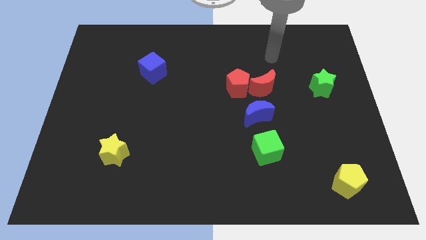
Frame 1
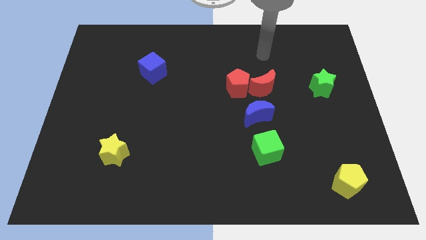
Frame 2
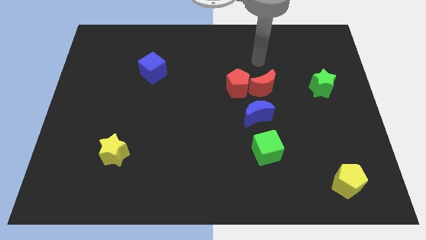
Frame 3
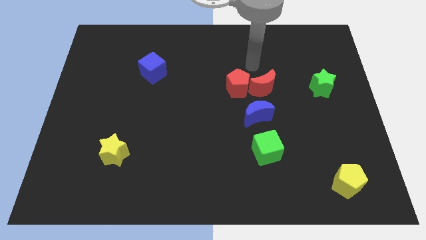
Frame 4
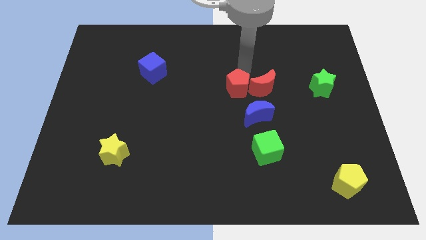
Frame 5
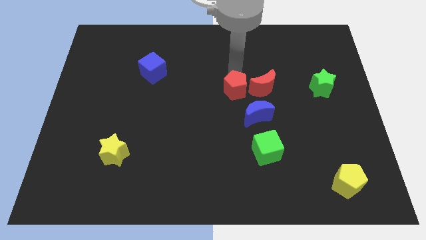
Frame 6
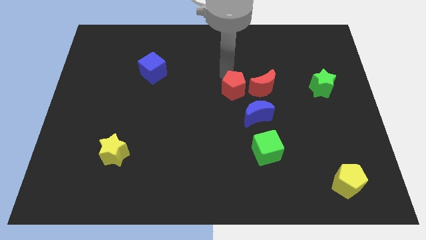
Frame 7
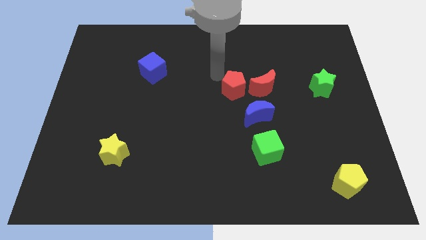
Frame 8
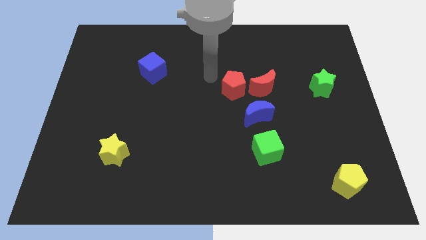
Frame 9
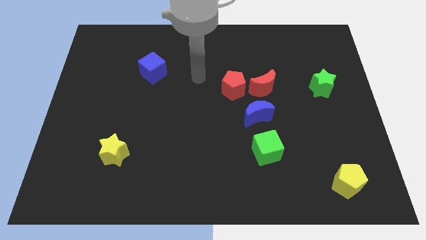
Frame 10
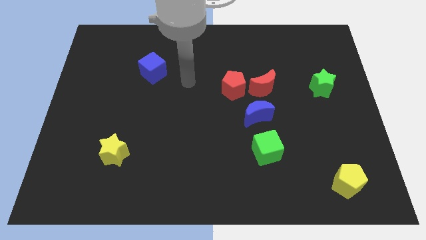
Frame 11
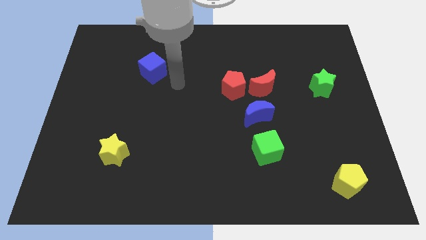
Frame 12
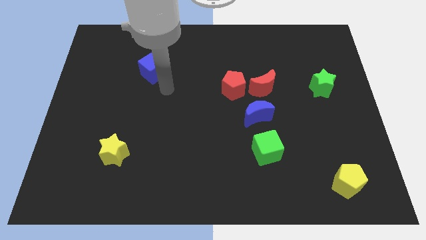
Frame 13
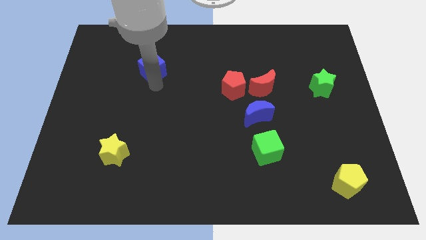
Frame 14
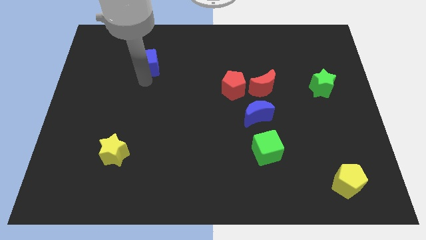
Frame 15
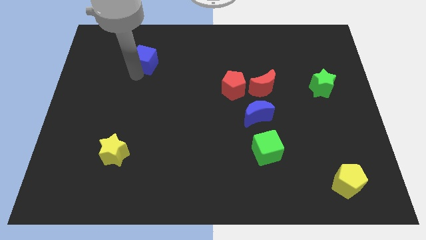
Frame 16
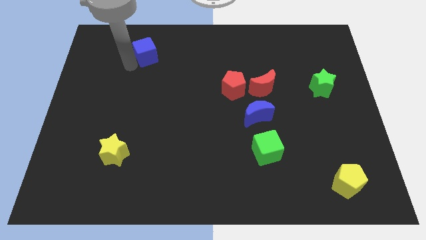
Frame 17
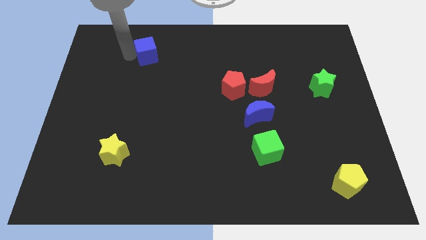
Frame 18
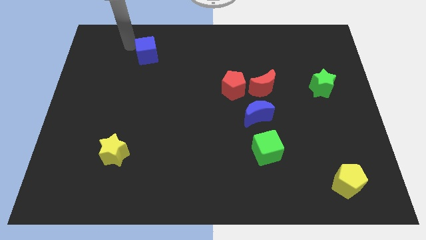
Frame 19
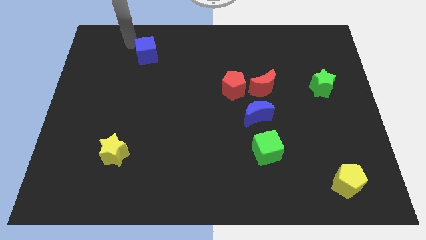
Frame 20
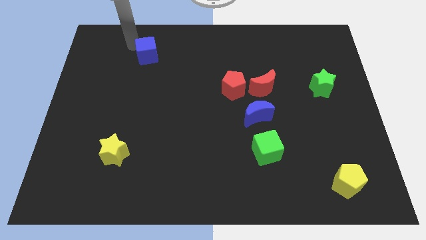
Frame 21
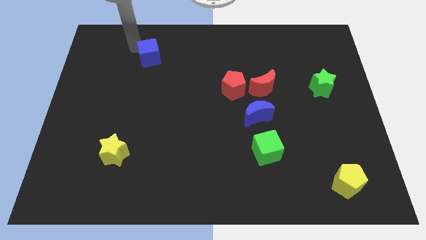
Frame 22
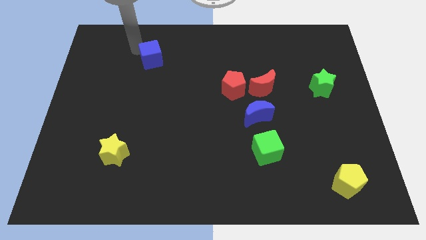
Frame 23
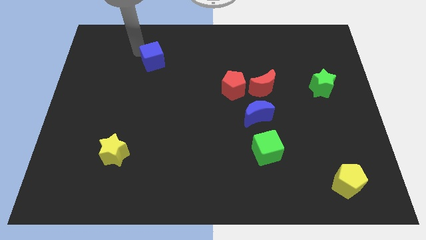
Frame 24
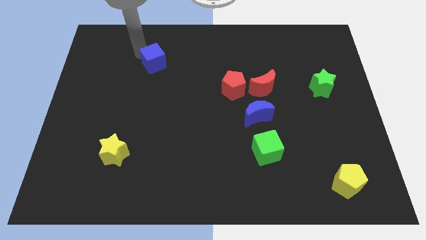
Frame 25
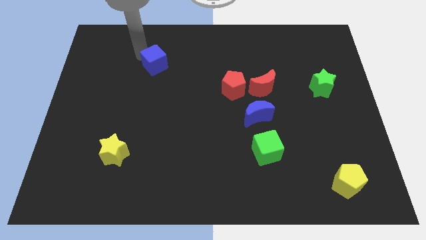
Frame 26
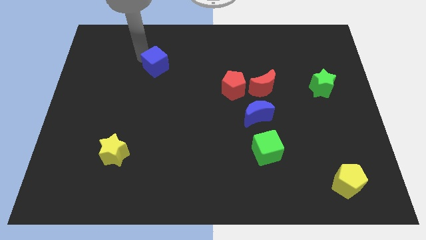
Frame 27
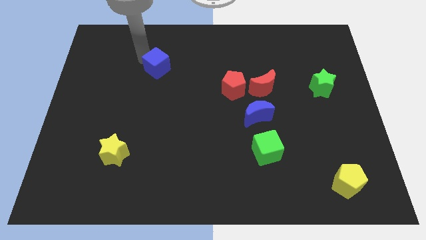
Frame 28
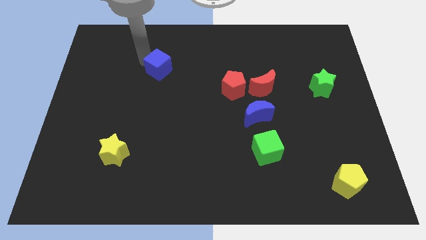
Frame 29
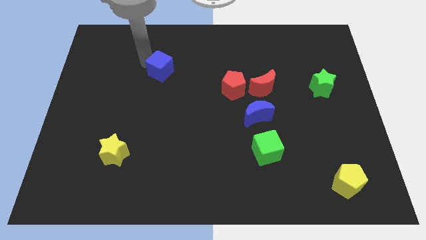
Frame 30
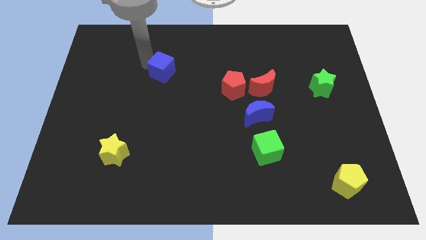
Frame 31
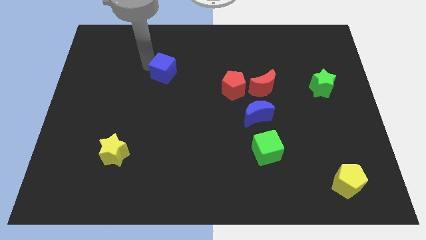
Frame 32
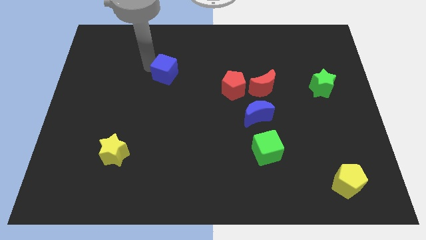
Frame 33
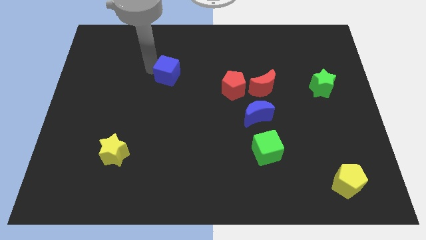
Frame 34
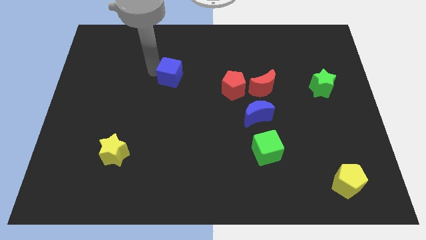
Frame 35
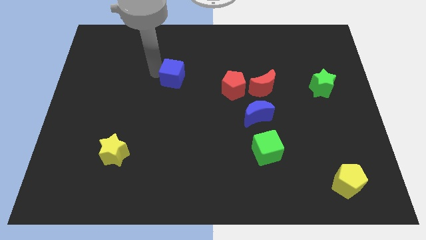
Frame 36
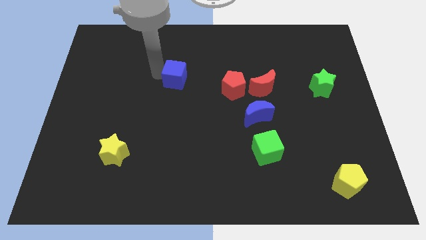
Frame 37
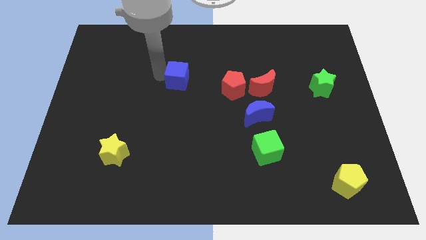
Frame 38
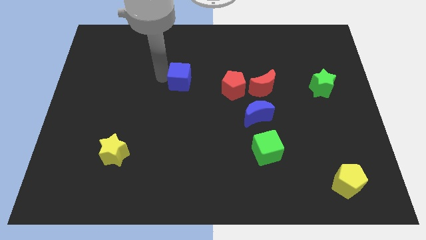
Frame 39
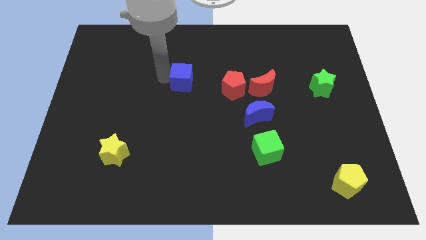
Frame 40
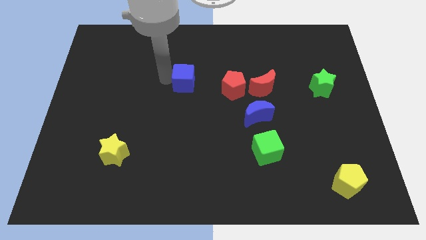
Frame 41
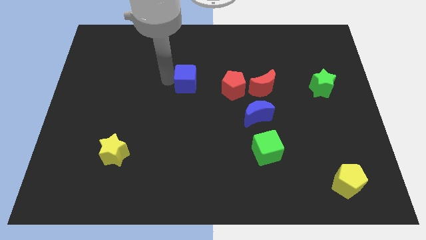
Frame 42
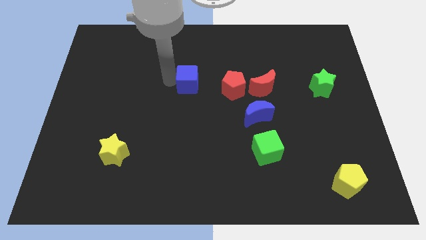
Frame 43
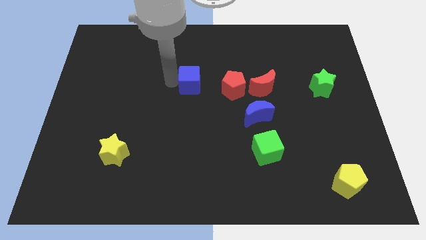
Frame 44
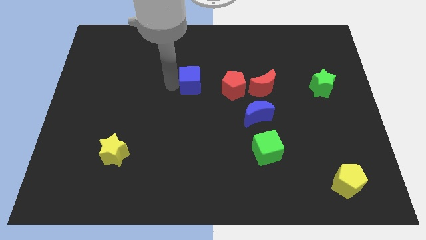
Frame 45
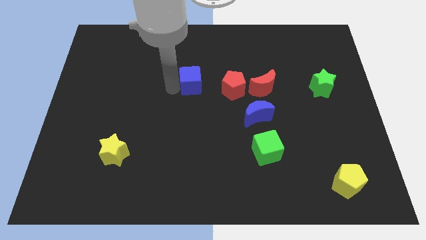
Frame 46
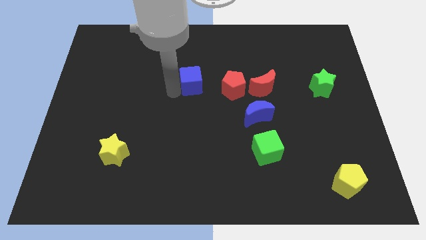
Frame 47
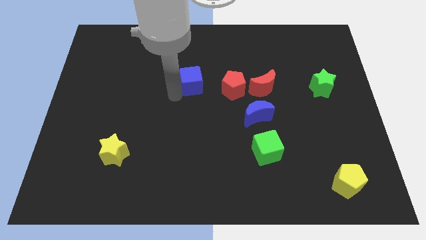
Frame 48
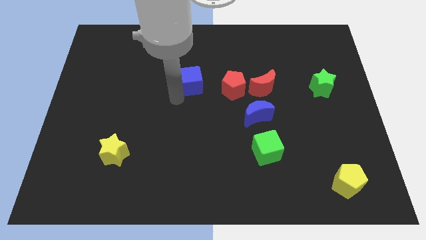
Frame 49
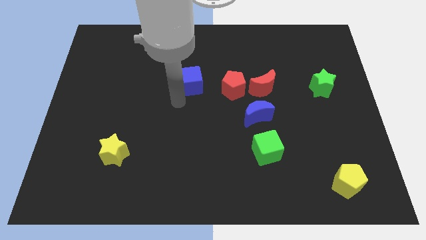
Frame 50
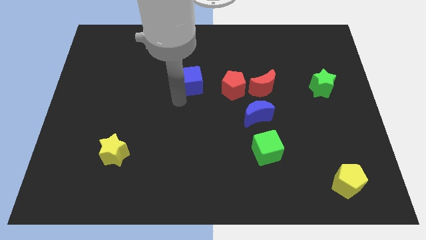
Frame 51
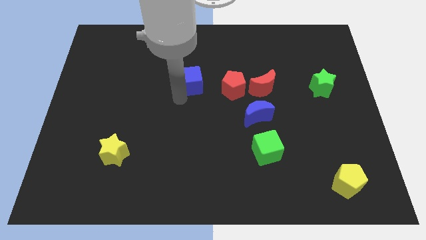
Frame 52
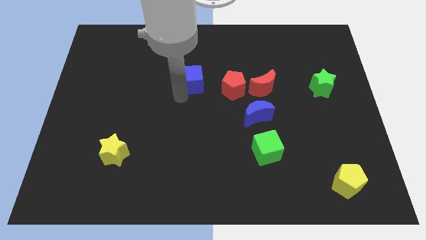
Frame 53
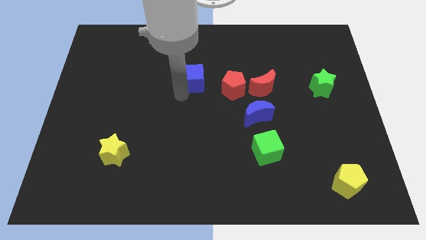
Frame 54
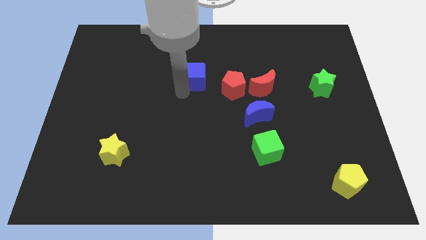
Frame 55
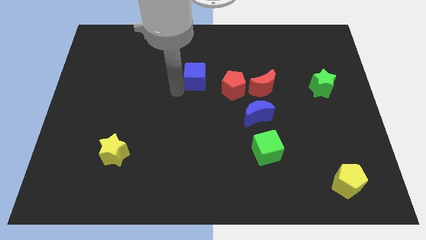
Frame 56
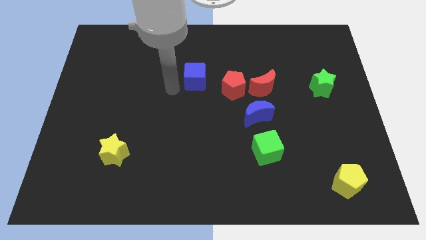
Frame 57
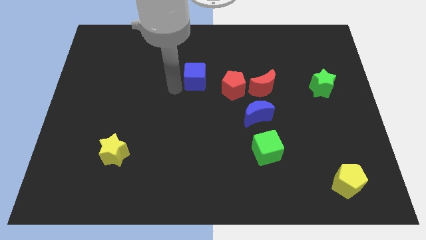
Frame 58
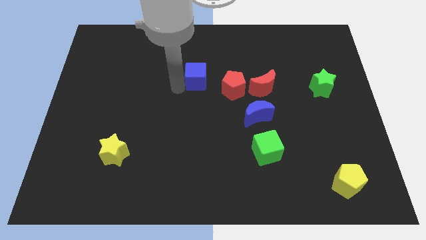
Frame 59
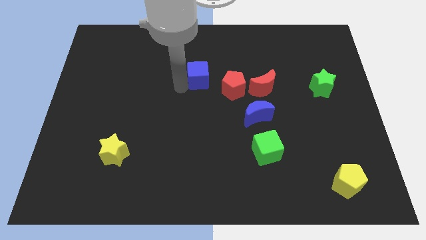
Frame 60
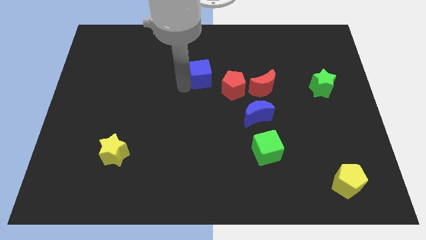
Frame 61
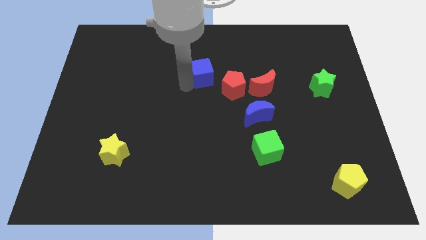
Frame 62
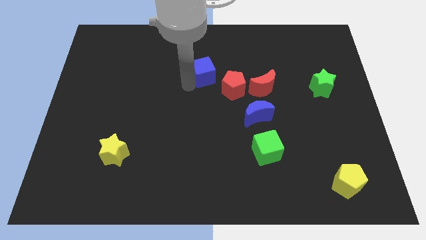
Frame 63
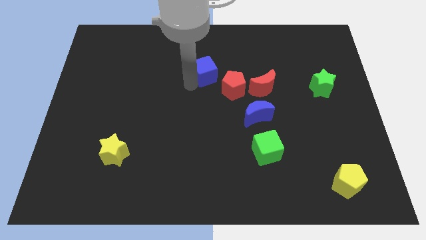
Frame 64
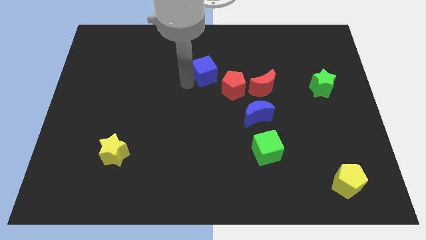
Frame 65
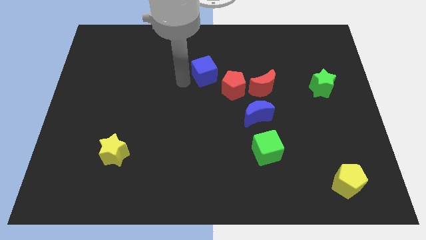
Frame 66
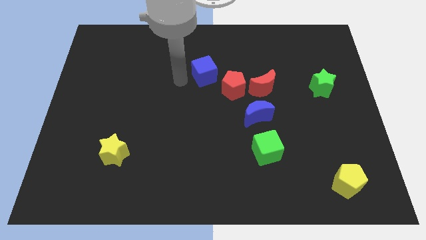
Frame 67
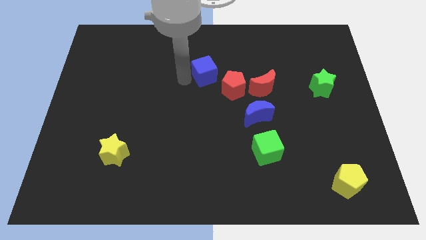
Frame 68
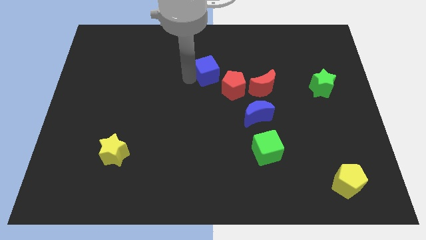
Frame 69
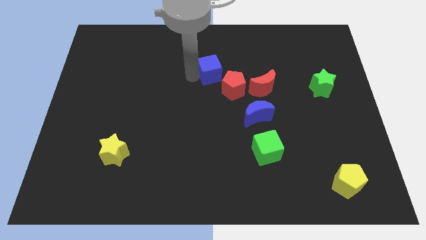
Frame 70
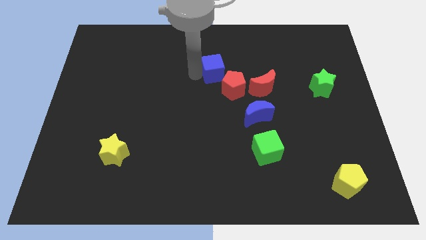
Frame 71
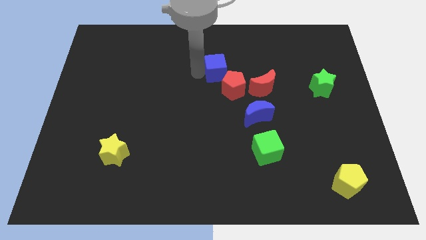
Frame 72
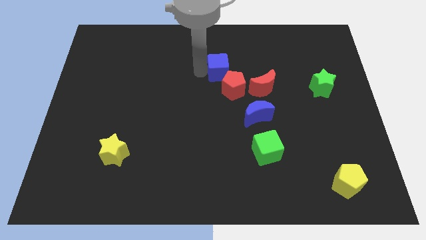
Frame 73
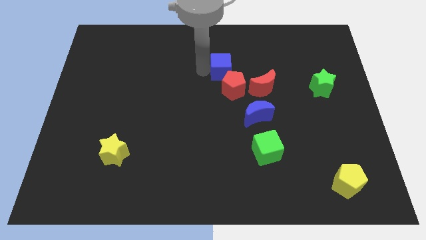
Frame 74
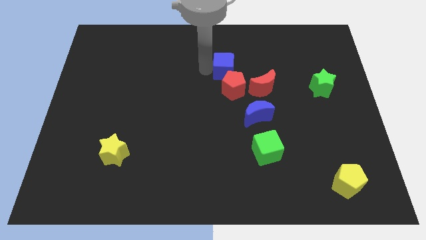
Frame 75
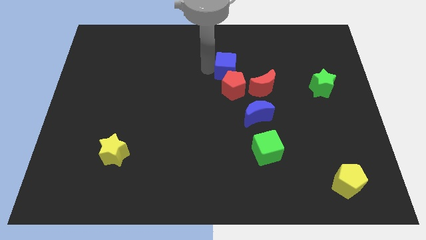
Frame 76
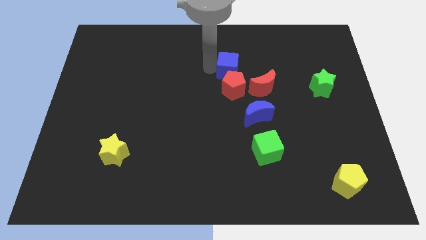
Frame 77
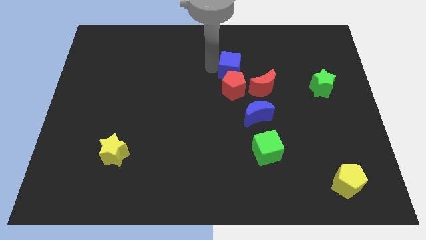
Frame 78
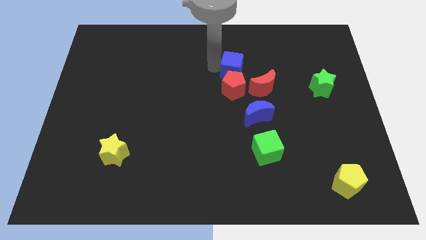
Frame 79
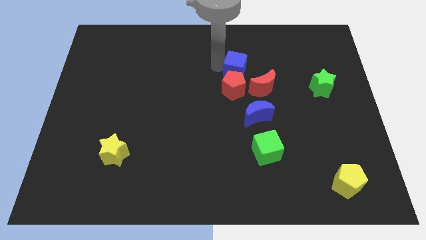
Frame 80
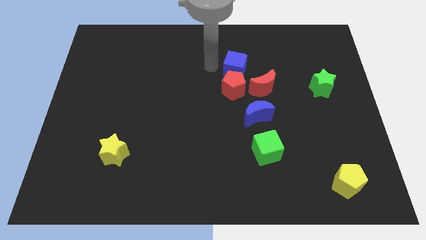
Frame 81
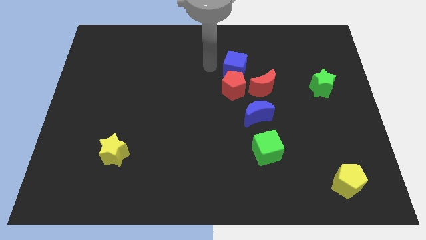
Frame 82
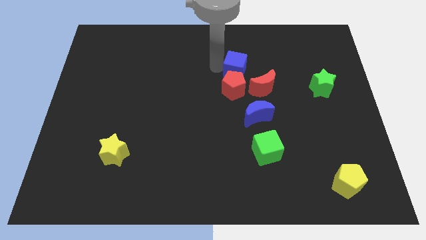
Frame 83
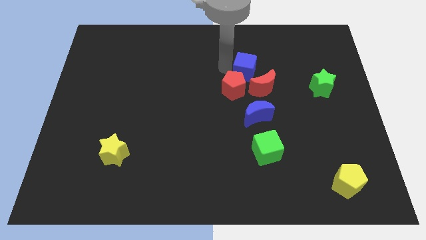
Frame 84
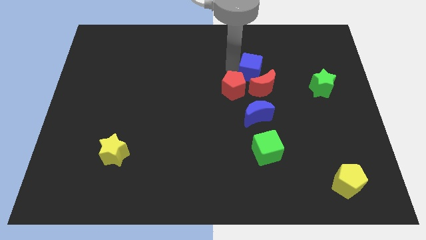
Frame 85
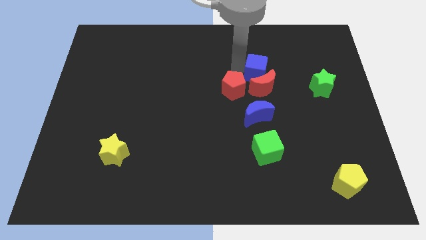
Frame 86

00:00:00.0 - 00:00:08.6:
slide the blue cube to the top right of the red moon
